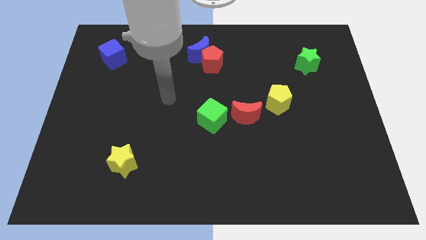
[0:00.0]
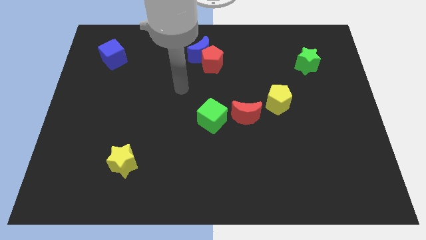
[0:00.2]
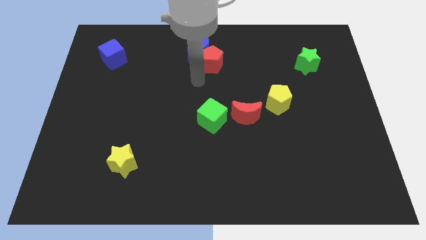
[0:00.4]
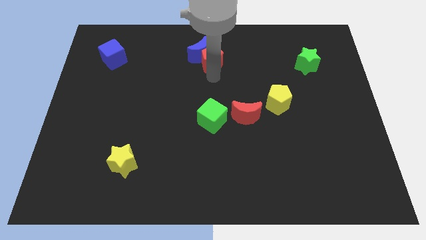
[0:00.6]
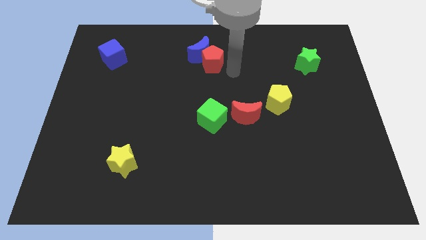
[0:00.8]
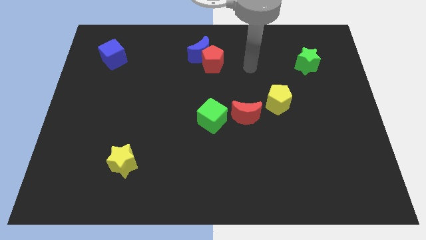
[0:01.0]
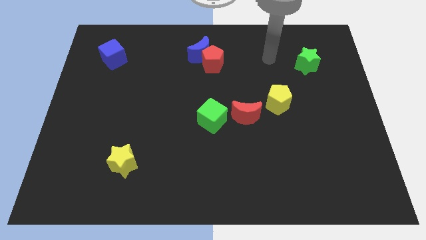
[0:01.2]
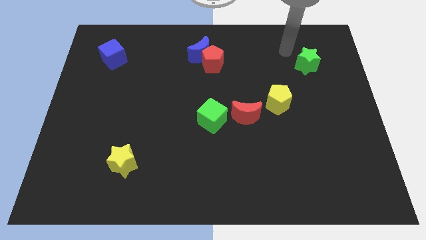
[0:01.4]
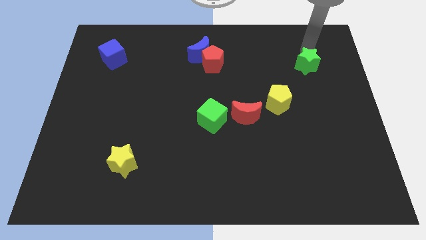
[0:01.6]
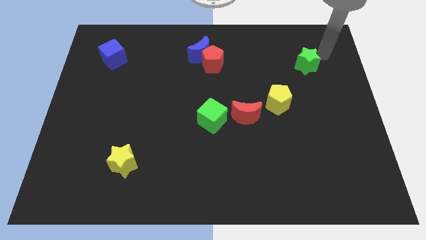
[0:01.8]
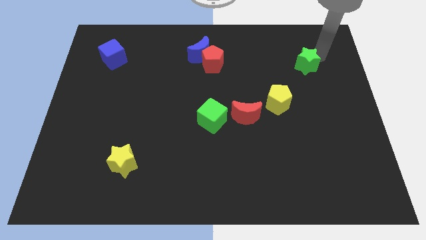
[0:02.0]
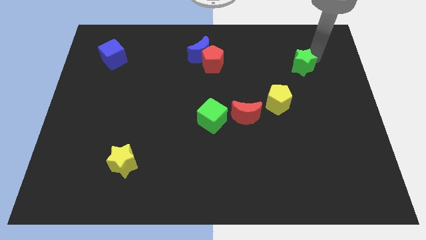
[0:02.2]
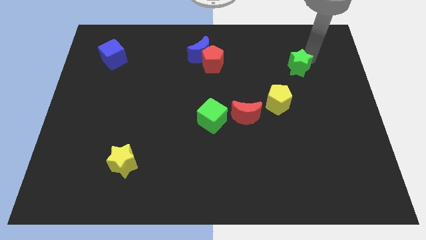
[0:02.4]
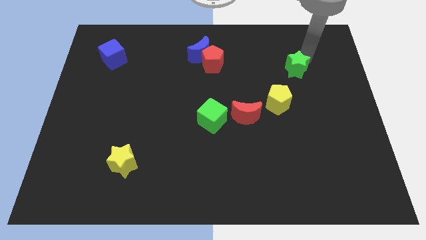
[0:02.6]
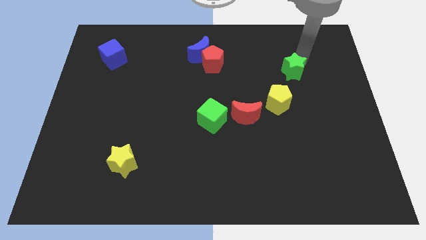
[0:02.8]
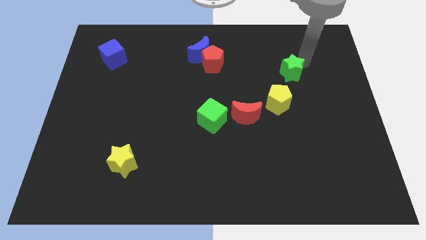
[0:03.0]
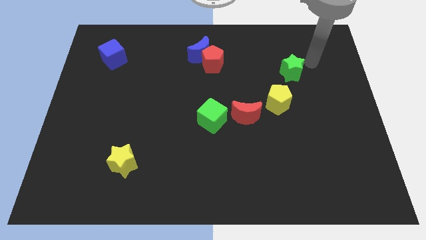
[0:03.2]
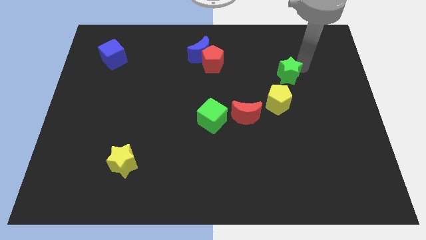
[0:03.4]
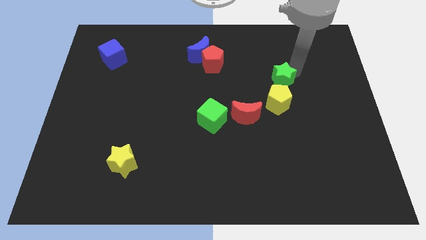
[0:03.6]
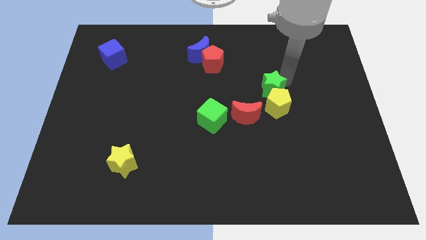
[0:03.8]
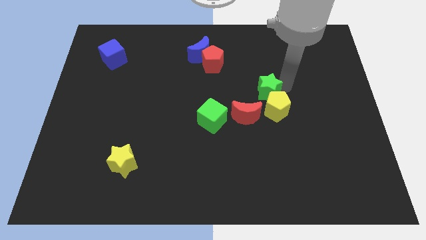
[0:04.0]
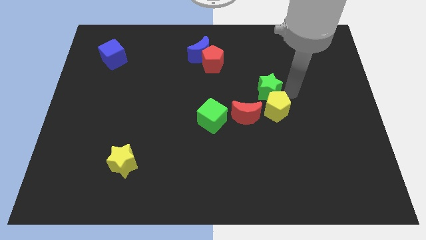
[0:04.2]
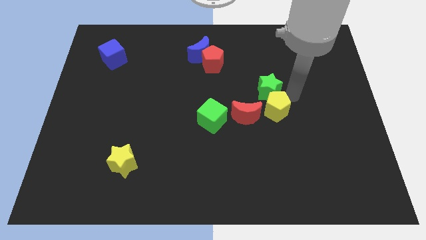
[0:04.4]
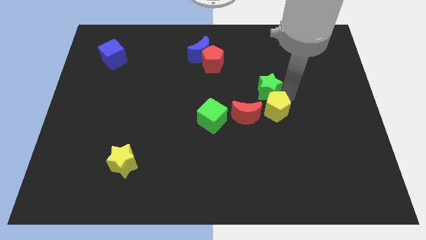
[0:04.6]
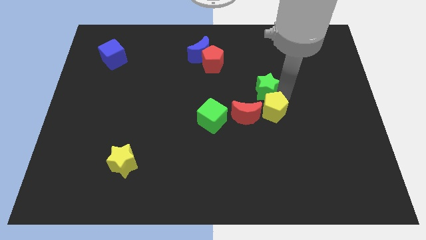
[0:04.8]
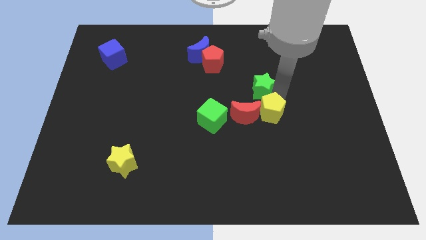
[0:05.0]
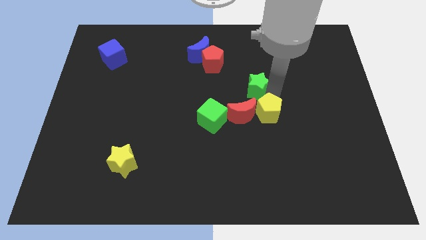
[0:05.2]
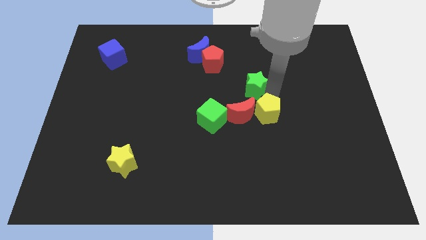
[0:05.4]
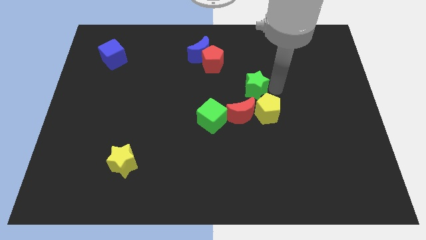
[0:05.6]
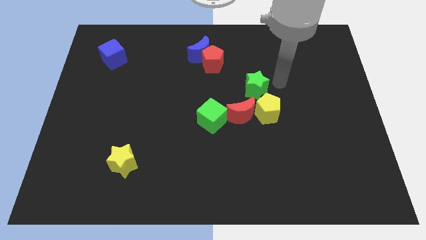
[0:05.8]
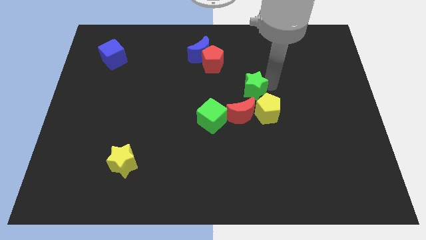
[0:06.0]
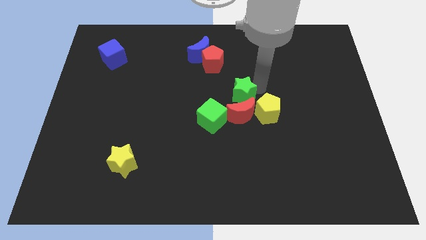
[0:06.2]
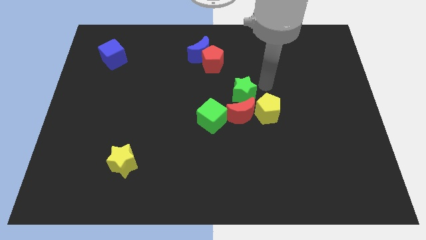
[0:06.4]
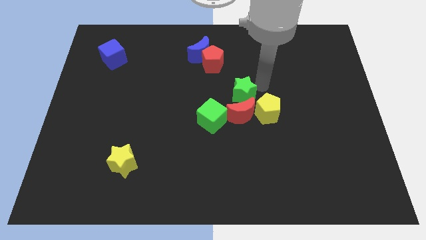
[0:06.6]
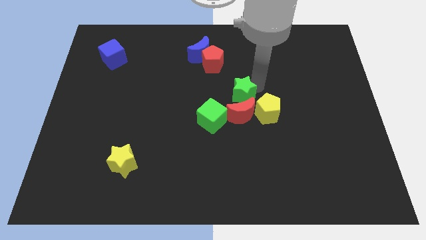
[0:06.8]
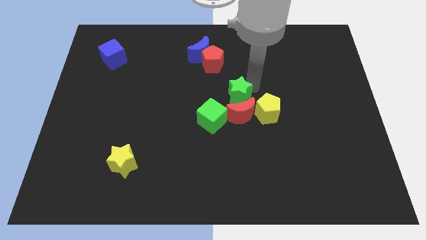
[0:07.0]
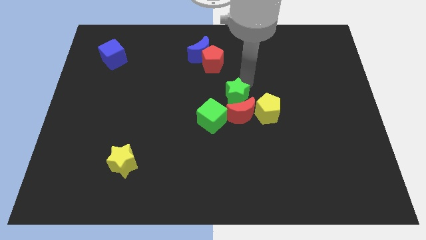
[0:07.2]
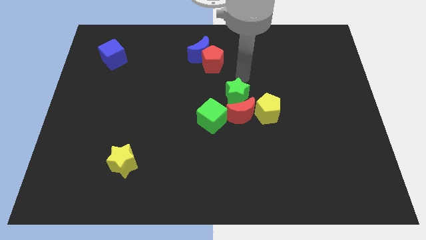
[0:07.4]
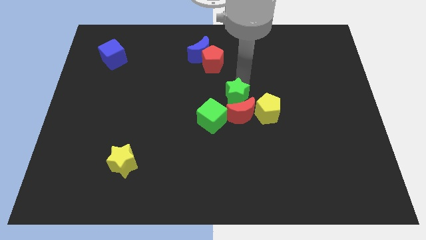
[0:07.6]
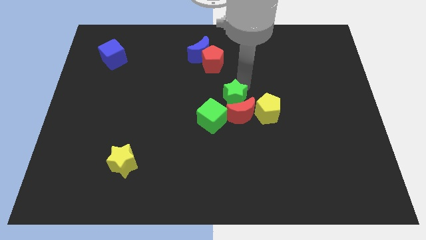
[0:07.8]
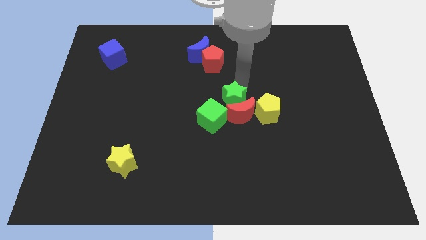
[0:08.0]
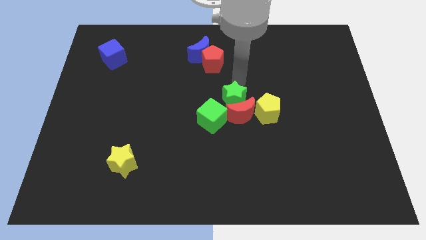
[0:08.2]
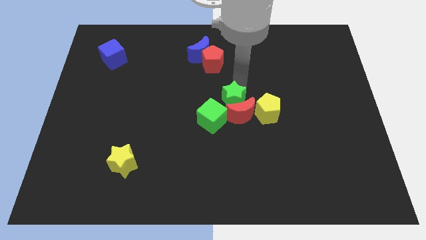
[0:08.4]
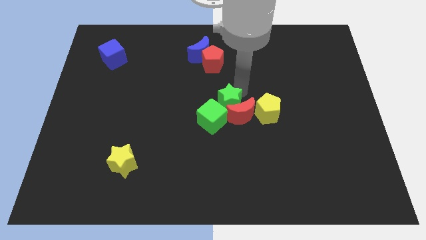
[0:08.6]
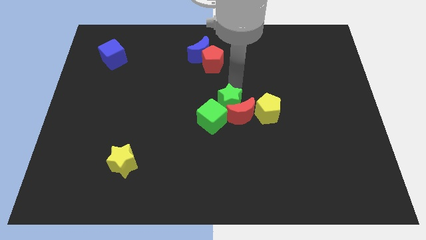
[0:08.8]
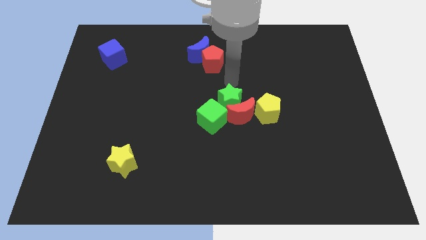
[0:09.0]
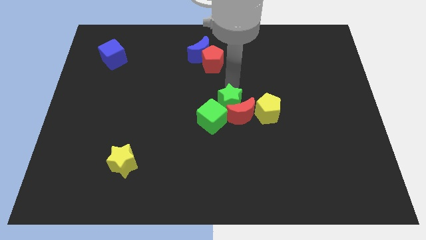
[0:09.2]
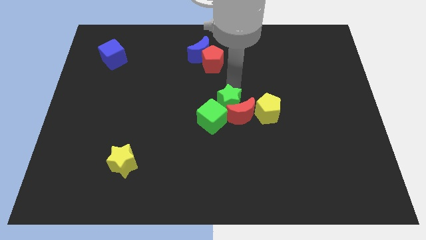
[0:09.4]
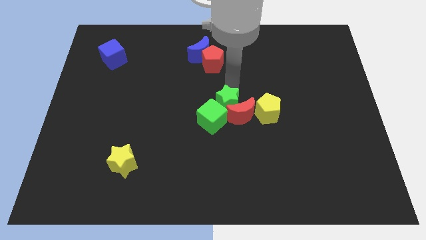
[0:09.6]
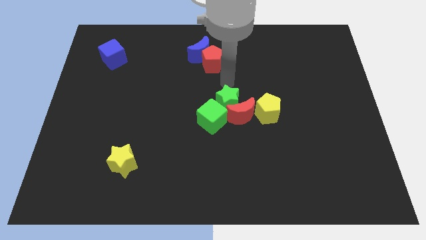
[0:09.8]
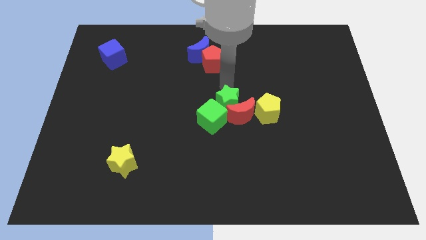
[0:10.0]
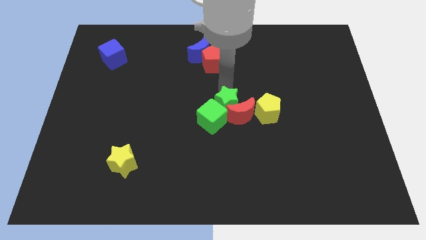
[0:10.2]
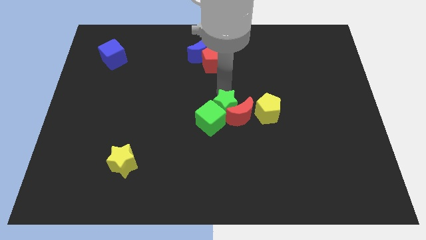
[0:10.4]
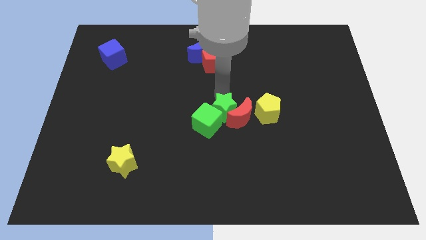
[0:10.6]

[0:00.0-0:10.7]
push the green star diagonally down and to the left of the red moon

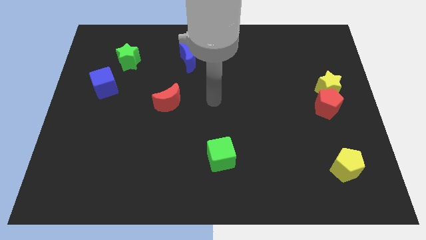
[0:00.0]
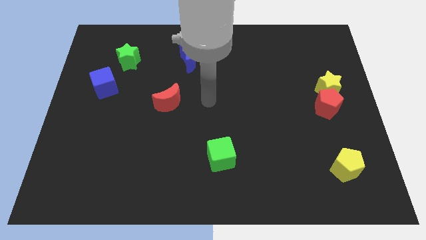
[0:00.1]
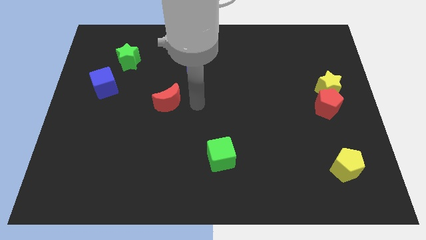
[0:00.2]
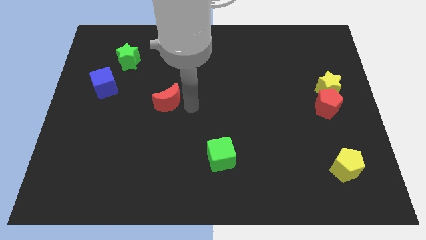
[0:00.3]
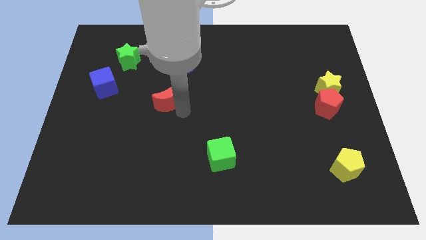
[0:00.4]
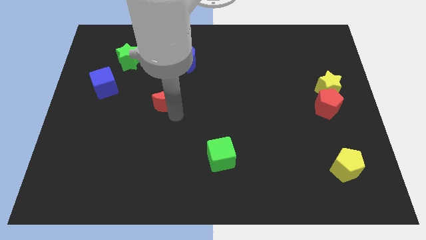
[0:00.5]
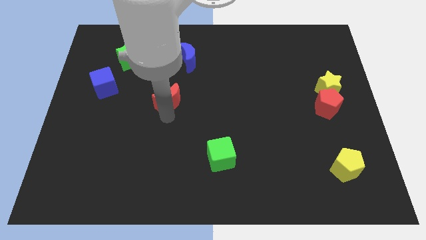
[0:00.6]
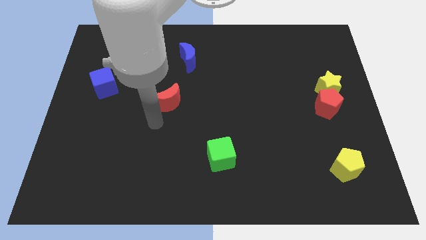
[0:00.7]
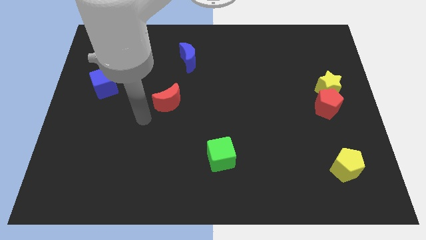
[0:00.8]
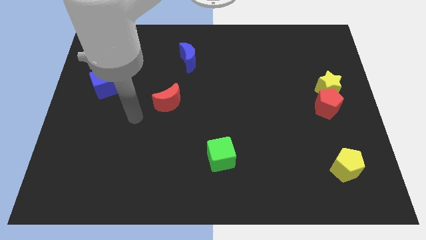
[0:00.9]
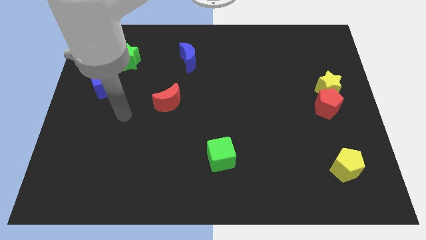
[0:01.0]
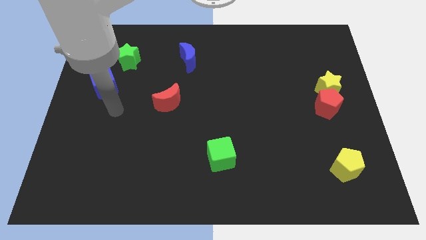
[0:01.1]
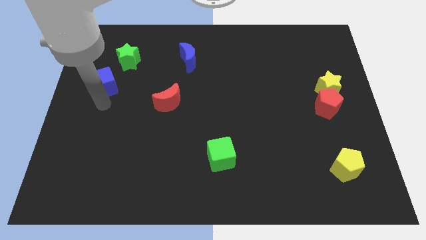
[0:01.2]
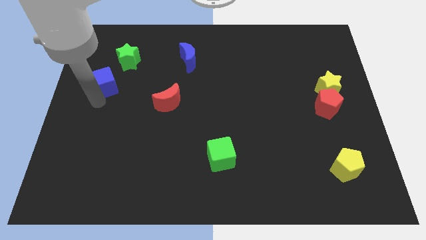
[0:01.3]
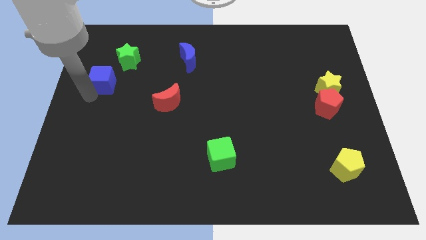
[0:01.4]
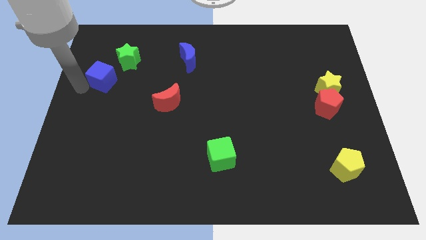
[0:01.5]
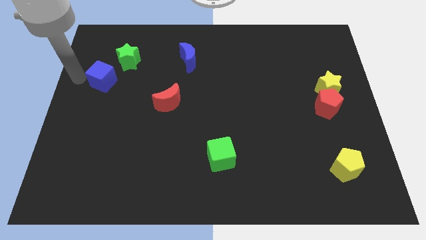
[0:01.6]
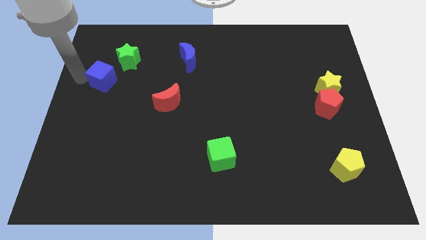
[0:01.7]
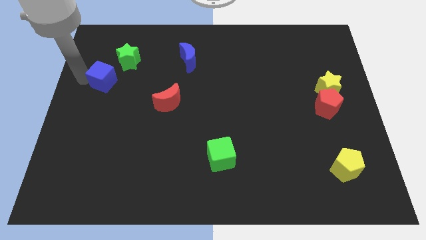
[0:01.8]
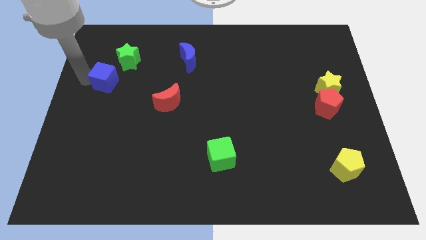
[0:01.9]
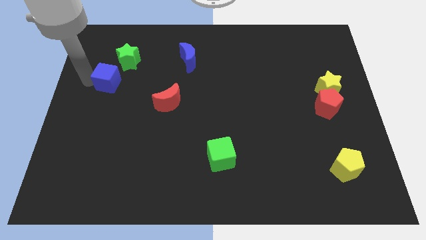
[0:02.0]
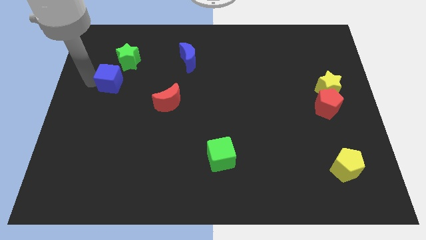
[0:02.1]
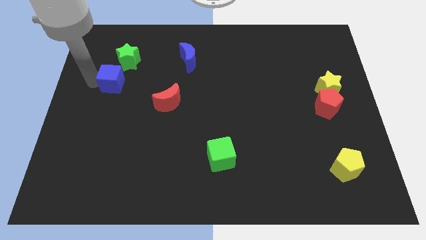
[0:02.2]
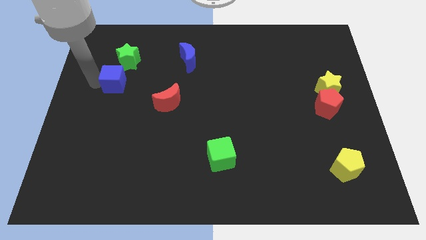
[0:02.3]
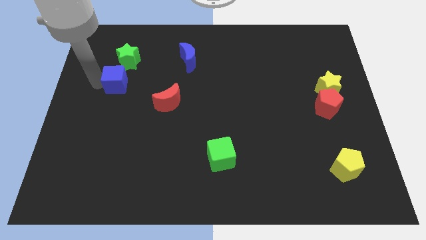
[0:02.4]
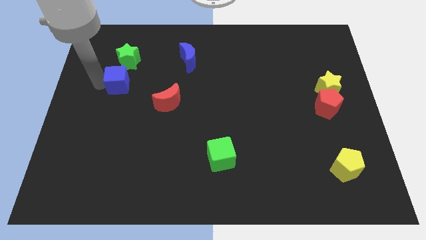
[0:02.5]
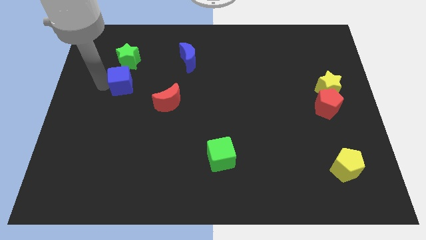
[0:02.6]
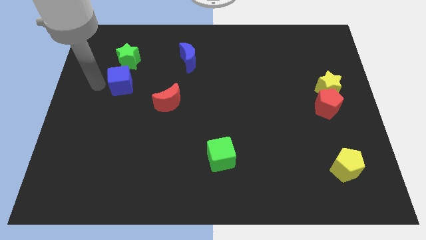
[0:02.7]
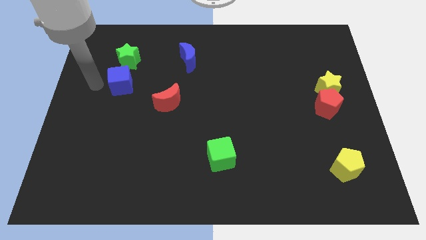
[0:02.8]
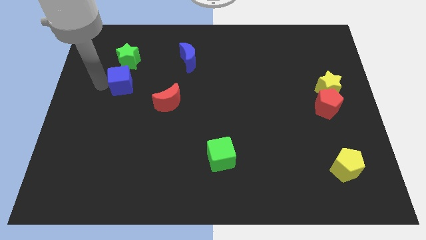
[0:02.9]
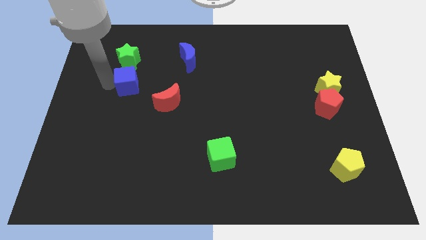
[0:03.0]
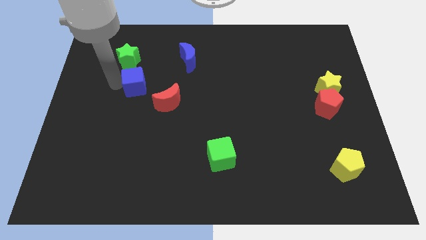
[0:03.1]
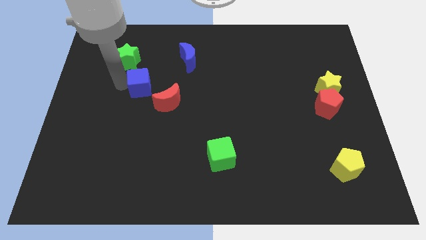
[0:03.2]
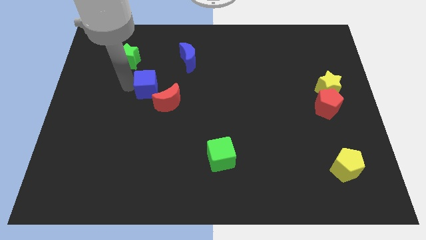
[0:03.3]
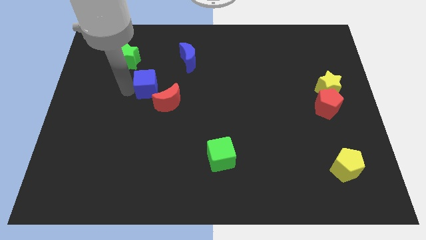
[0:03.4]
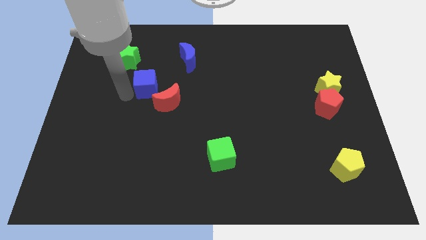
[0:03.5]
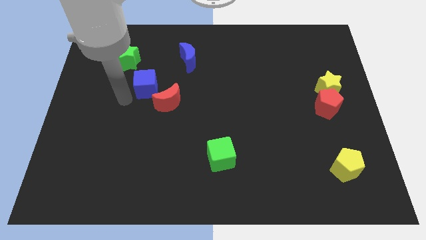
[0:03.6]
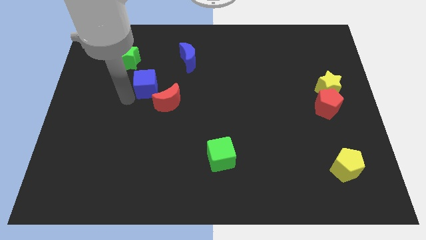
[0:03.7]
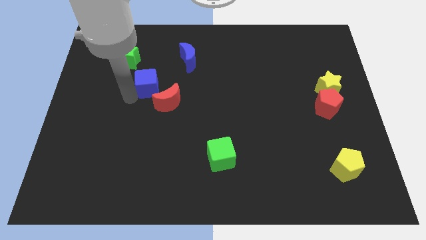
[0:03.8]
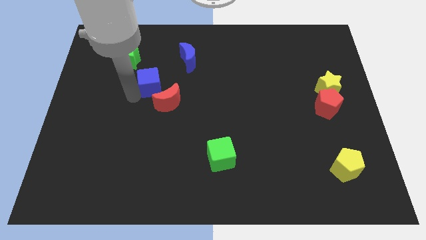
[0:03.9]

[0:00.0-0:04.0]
slide the blue cube to the bottom left side of the blue moon
